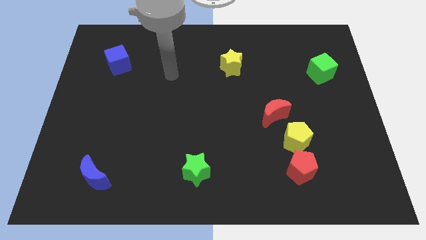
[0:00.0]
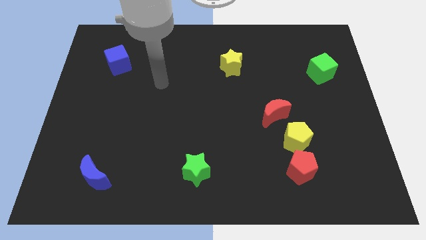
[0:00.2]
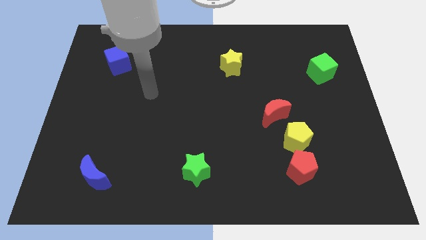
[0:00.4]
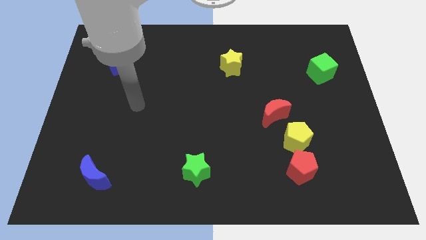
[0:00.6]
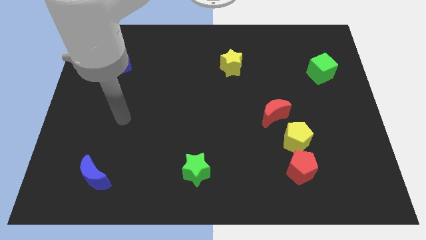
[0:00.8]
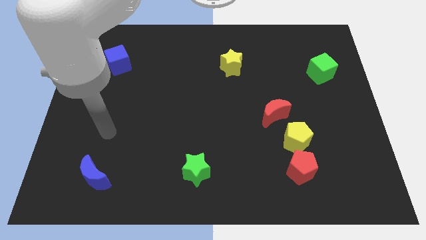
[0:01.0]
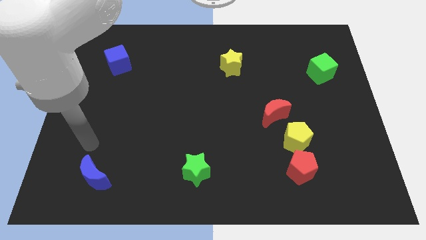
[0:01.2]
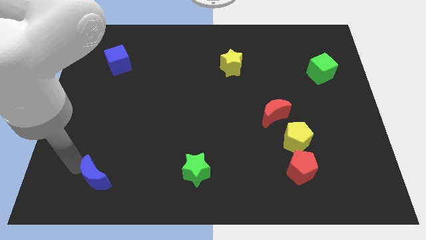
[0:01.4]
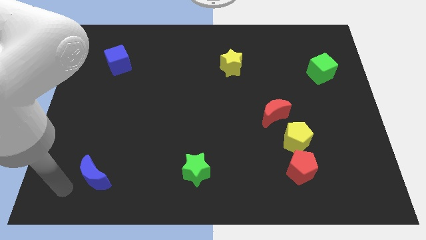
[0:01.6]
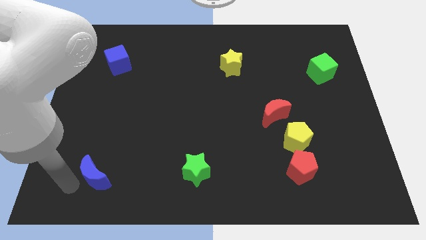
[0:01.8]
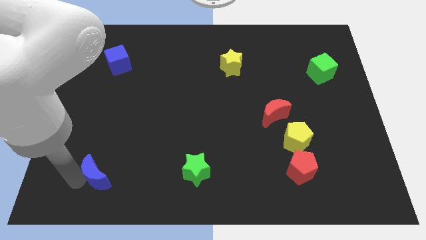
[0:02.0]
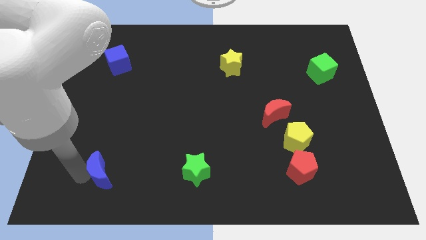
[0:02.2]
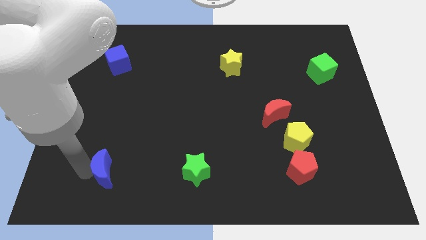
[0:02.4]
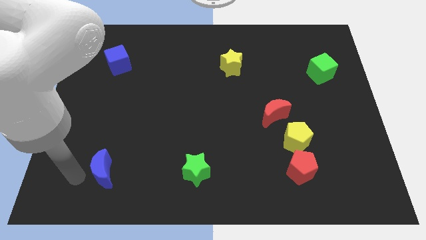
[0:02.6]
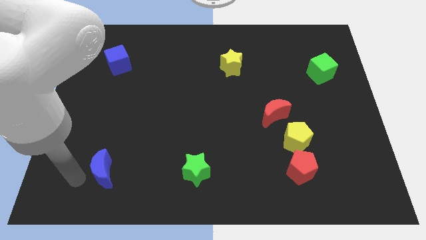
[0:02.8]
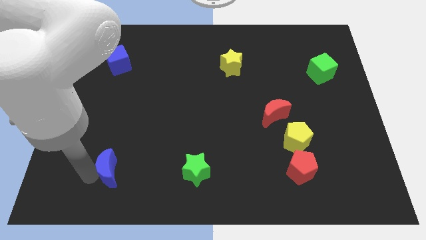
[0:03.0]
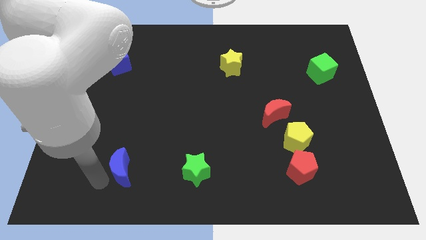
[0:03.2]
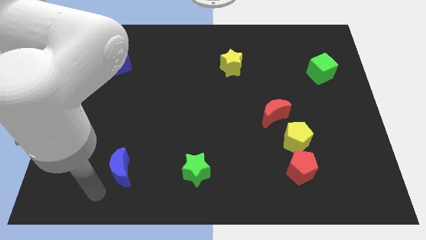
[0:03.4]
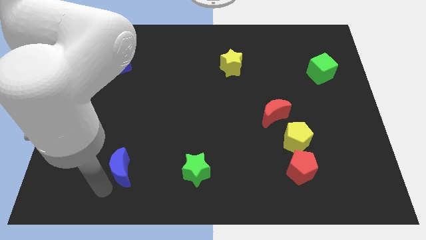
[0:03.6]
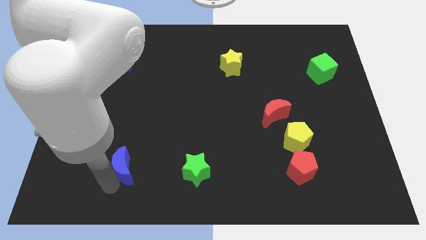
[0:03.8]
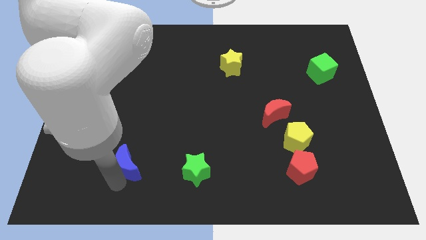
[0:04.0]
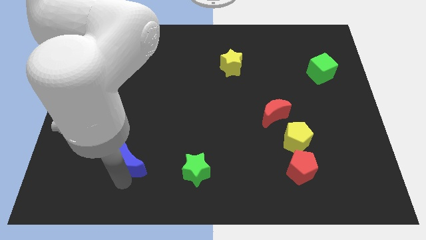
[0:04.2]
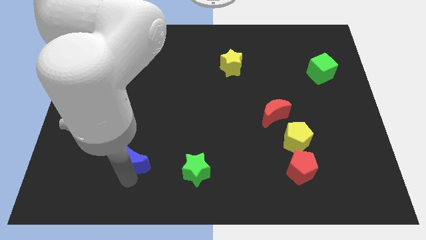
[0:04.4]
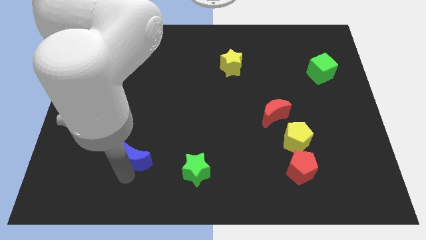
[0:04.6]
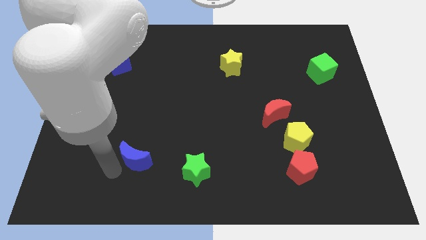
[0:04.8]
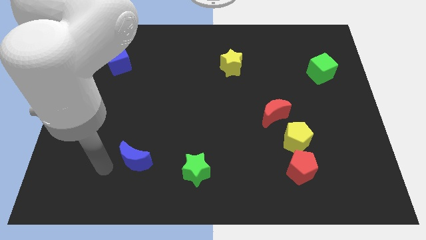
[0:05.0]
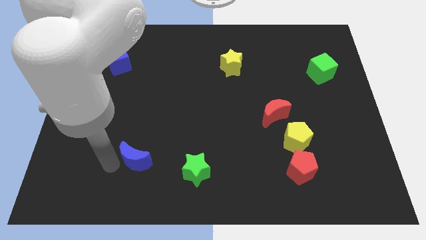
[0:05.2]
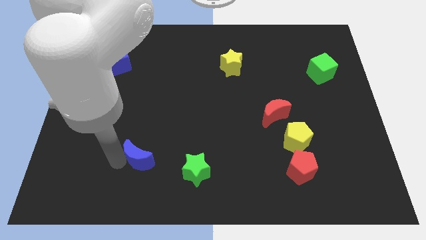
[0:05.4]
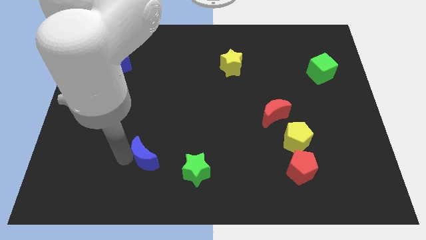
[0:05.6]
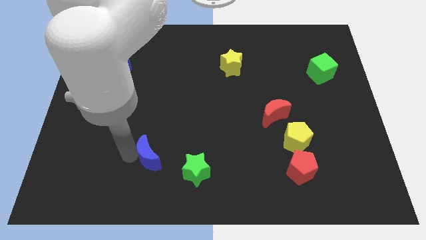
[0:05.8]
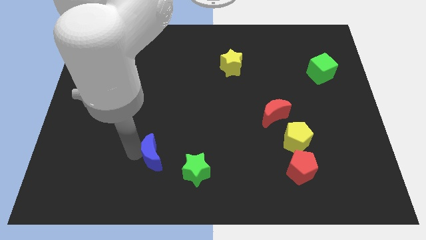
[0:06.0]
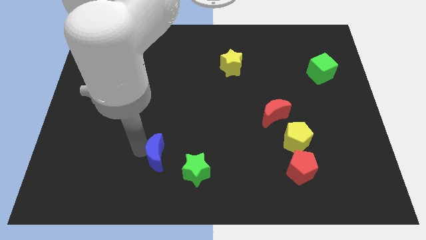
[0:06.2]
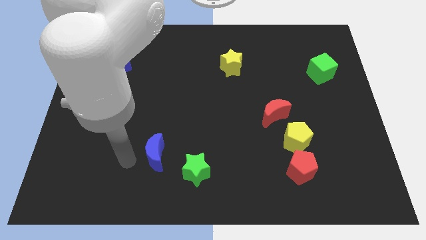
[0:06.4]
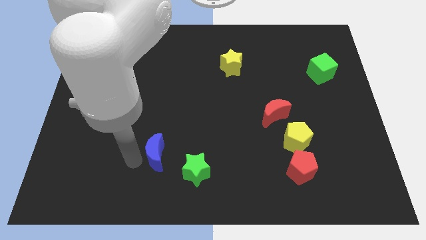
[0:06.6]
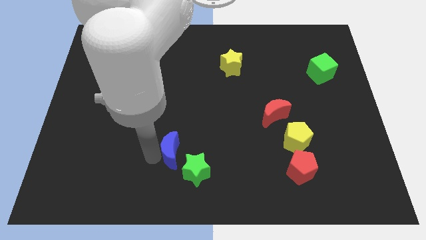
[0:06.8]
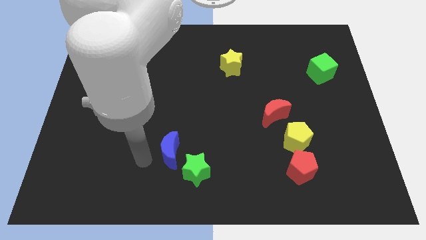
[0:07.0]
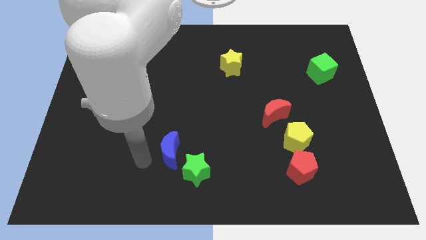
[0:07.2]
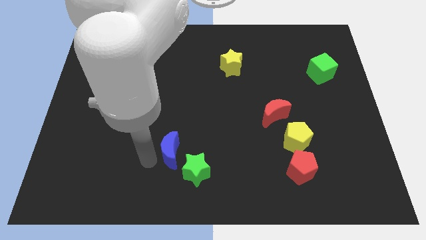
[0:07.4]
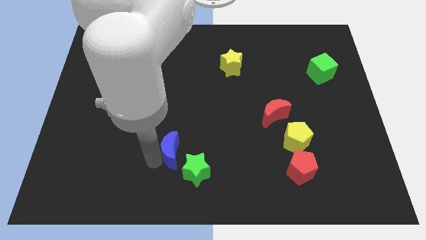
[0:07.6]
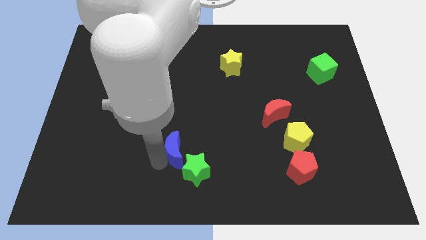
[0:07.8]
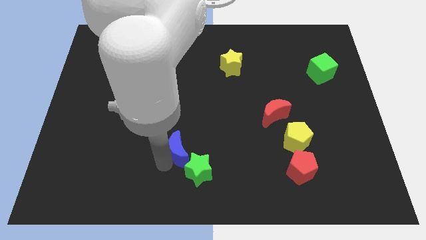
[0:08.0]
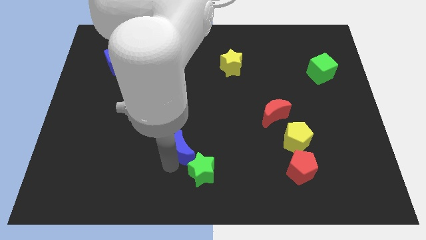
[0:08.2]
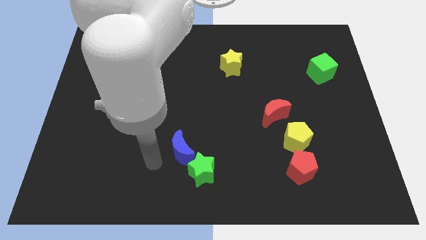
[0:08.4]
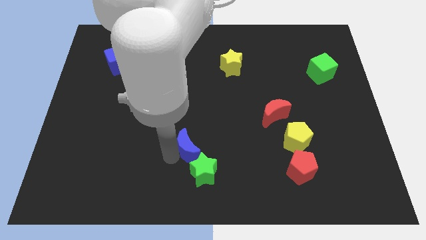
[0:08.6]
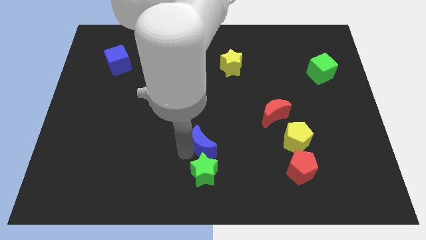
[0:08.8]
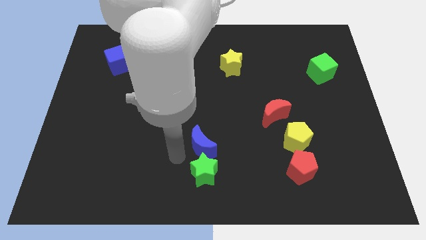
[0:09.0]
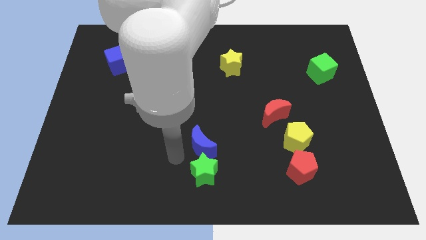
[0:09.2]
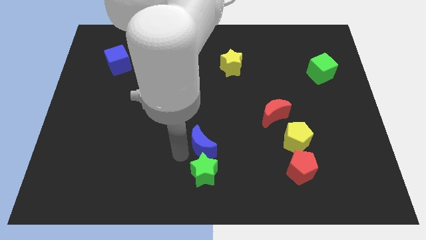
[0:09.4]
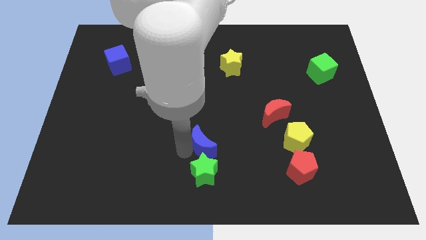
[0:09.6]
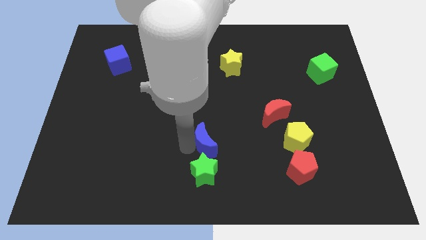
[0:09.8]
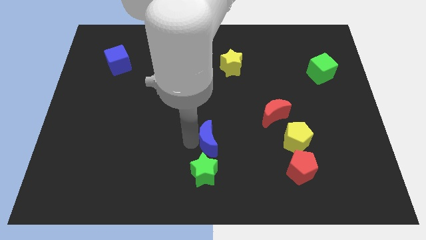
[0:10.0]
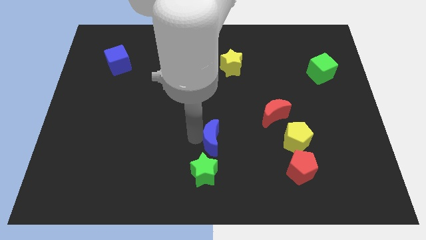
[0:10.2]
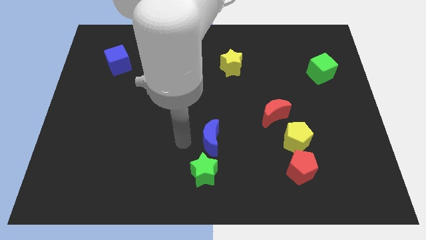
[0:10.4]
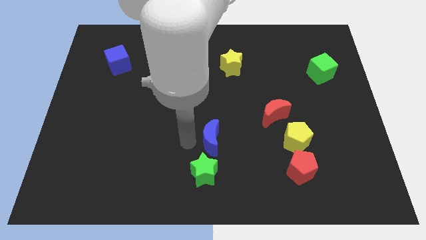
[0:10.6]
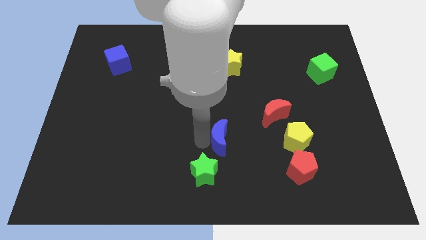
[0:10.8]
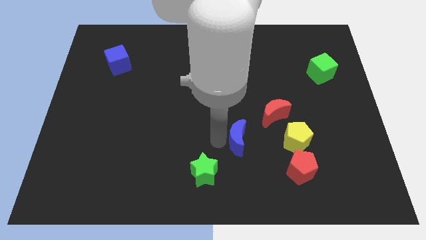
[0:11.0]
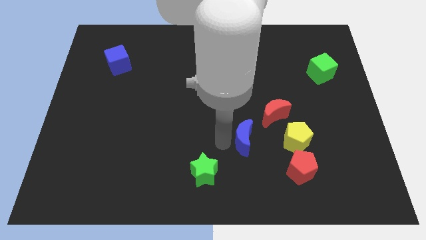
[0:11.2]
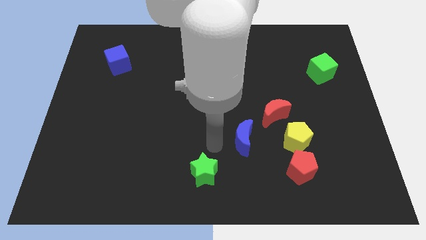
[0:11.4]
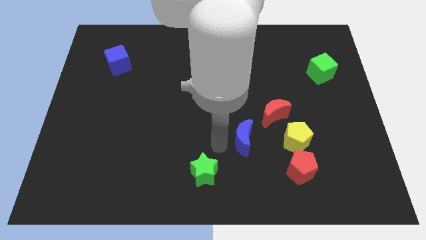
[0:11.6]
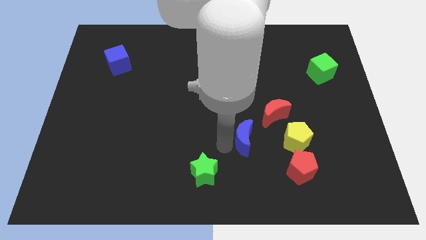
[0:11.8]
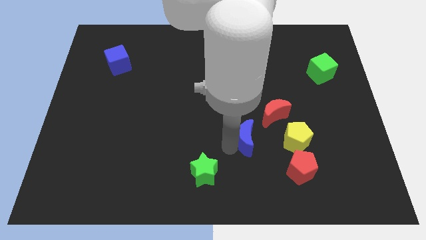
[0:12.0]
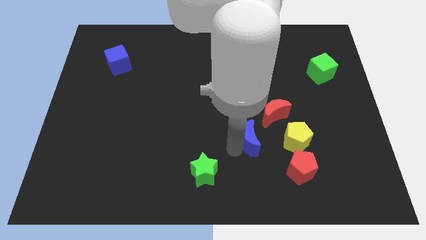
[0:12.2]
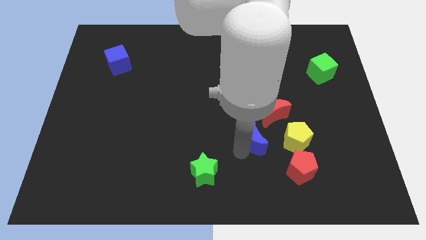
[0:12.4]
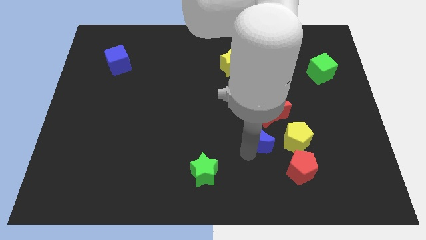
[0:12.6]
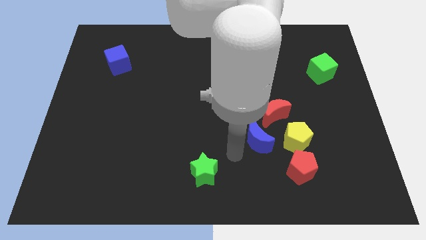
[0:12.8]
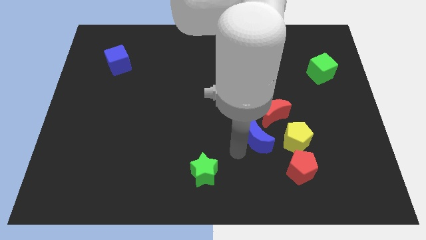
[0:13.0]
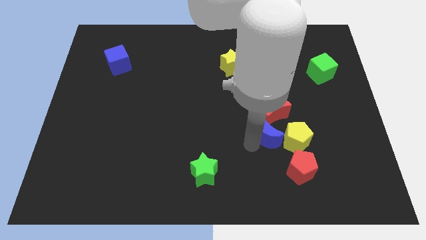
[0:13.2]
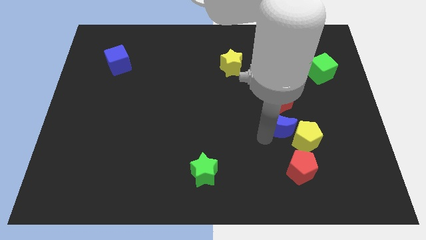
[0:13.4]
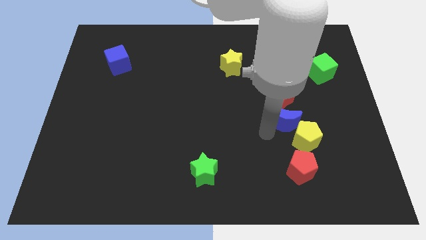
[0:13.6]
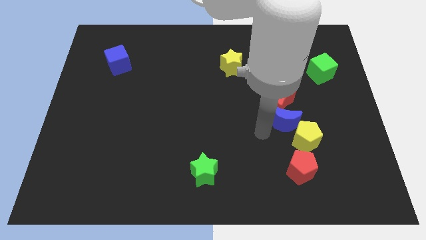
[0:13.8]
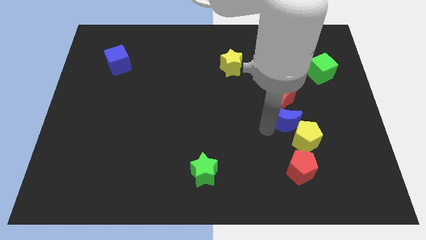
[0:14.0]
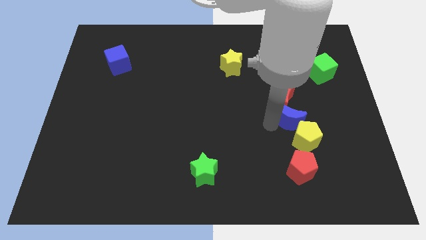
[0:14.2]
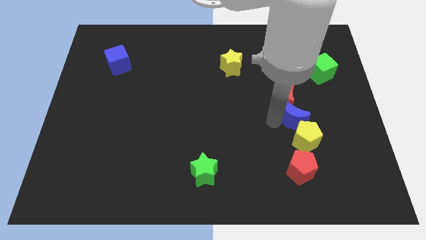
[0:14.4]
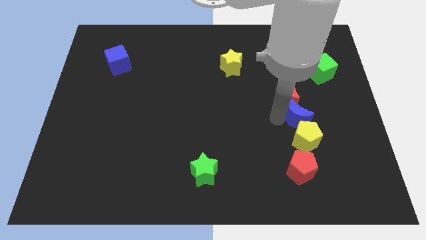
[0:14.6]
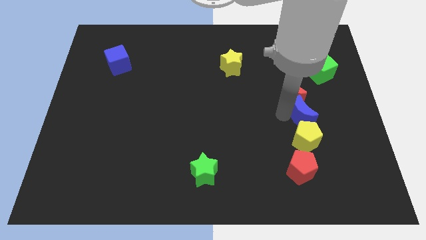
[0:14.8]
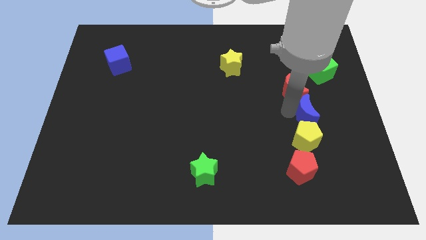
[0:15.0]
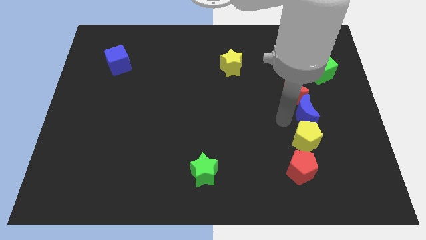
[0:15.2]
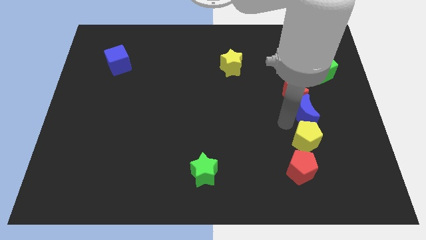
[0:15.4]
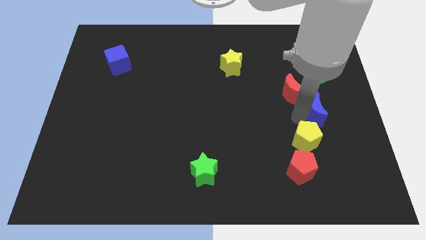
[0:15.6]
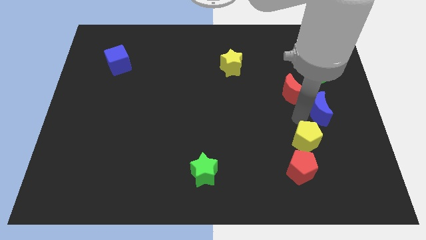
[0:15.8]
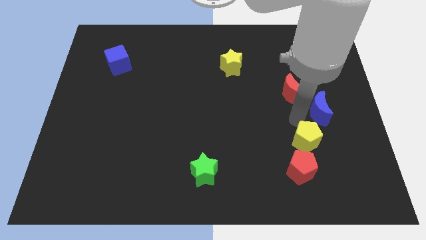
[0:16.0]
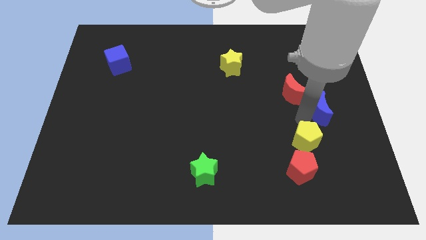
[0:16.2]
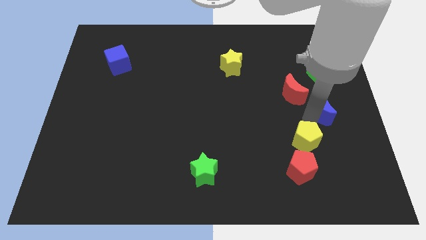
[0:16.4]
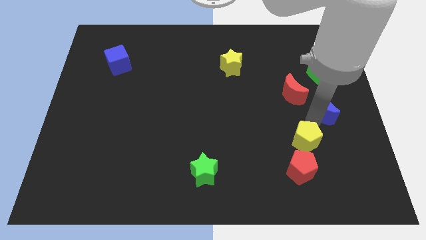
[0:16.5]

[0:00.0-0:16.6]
slide the blue moon to the right side of the board
